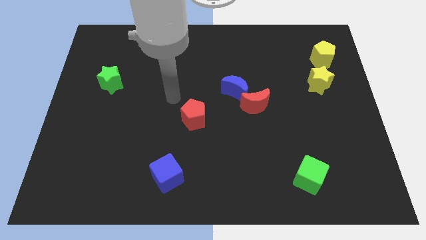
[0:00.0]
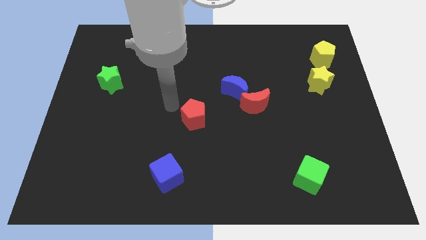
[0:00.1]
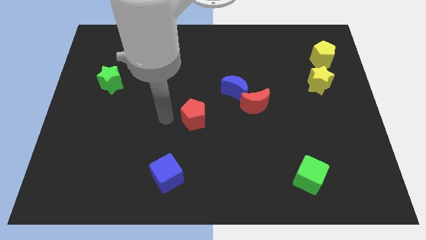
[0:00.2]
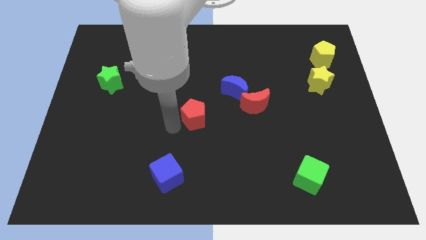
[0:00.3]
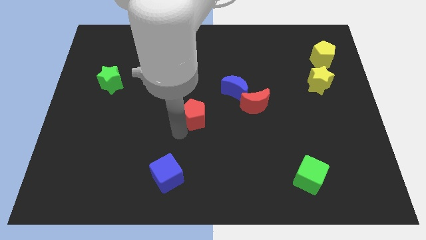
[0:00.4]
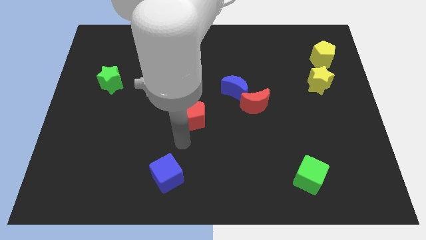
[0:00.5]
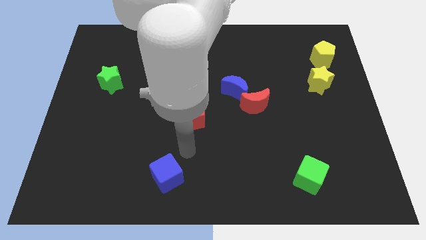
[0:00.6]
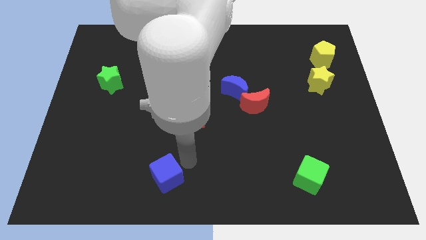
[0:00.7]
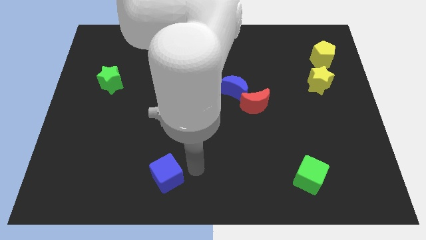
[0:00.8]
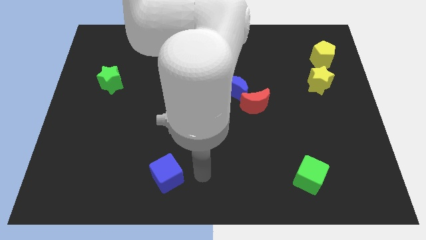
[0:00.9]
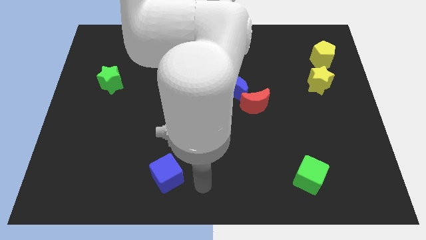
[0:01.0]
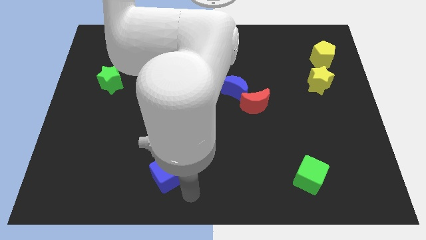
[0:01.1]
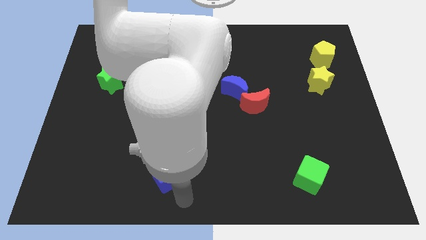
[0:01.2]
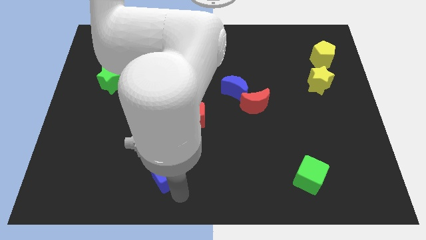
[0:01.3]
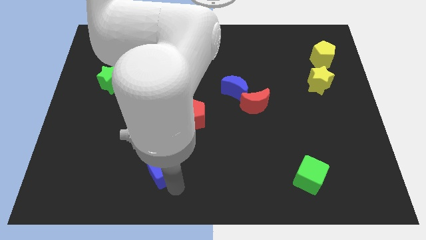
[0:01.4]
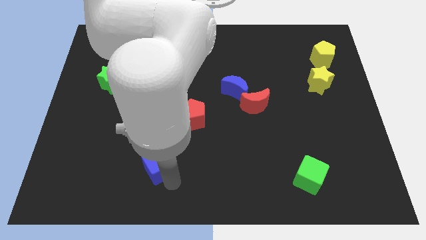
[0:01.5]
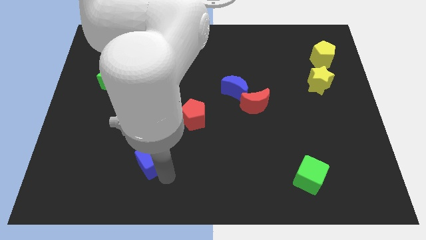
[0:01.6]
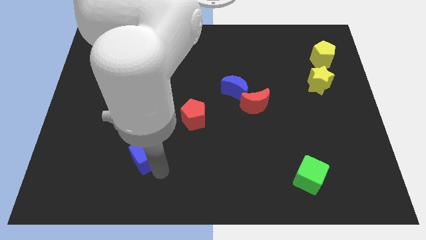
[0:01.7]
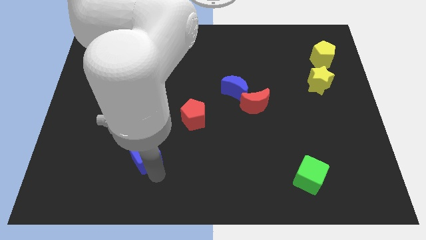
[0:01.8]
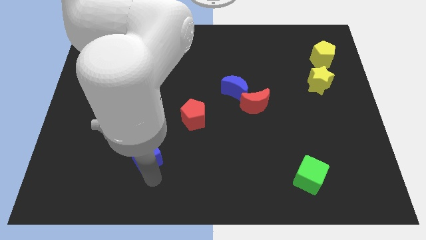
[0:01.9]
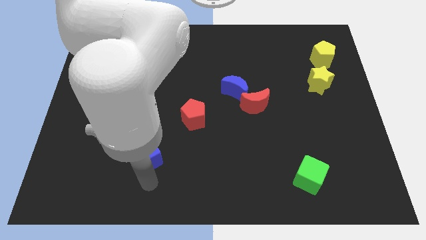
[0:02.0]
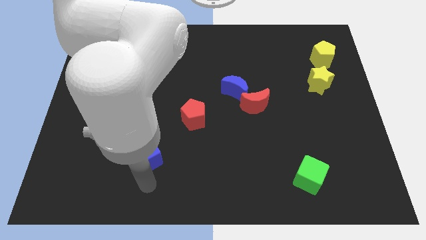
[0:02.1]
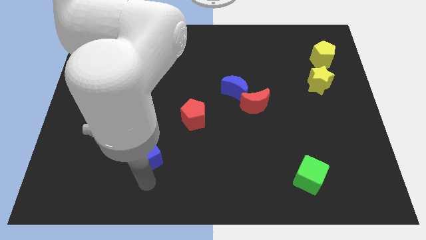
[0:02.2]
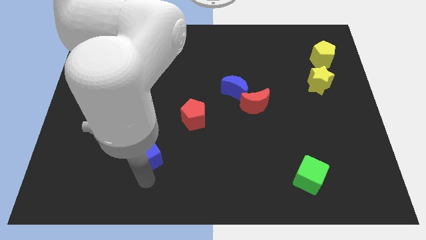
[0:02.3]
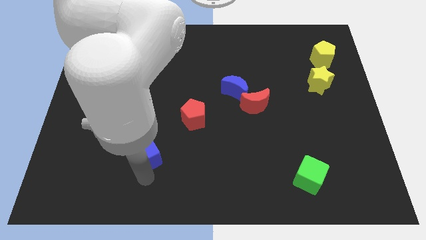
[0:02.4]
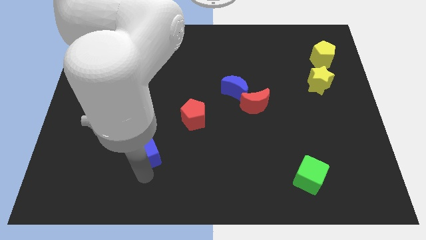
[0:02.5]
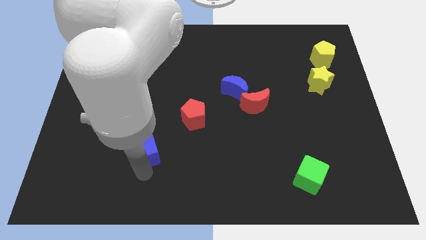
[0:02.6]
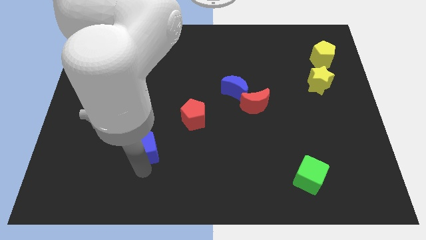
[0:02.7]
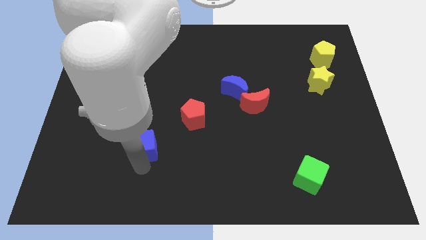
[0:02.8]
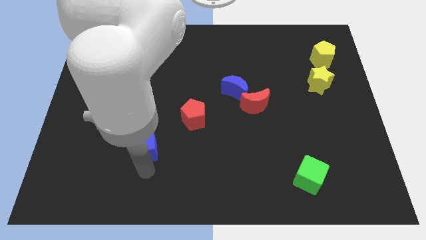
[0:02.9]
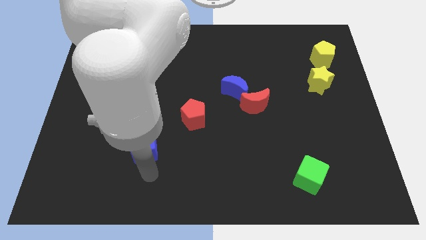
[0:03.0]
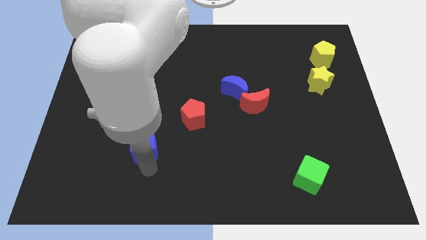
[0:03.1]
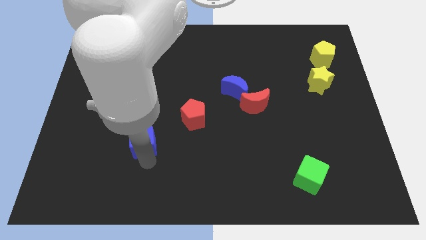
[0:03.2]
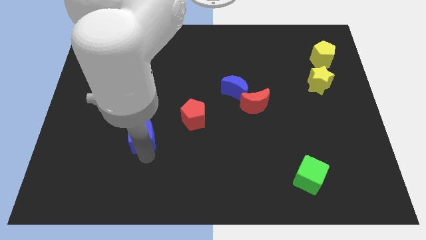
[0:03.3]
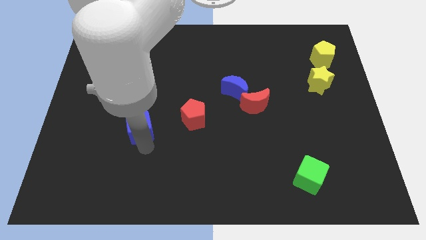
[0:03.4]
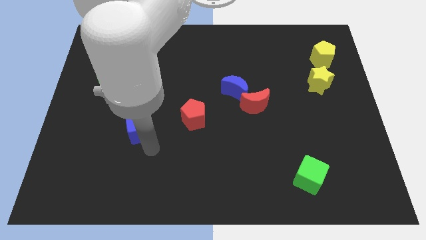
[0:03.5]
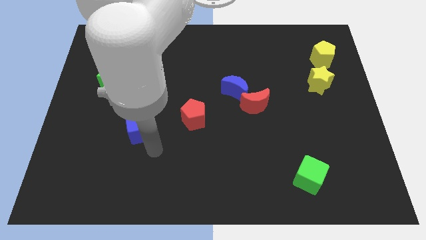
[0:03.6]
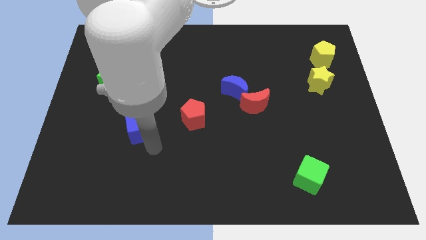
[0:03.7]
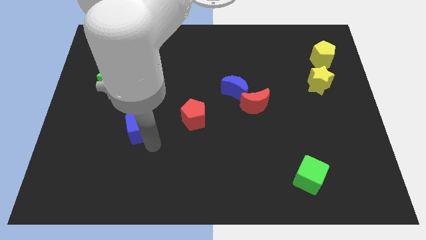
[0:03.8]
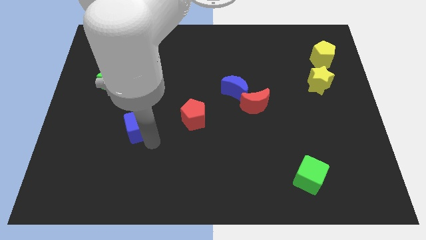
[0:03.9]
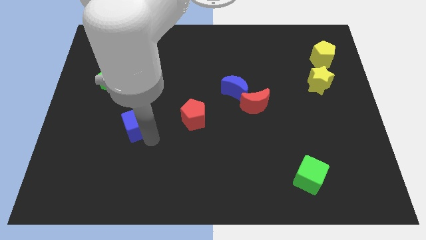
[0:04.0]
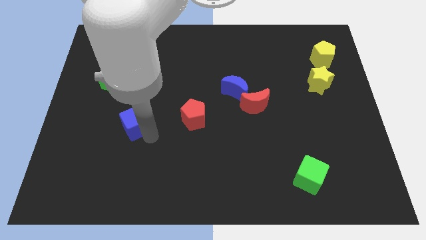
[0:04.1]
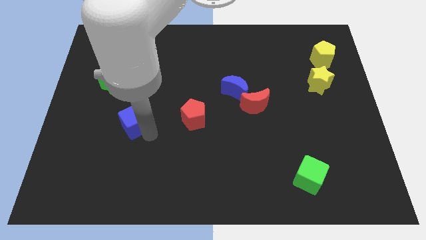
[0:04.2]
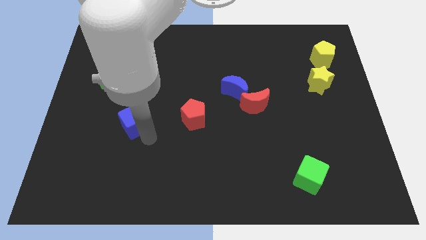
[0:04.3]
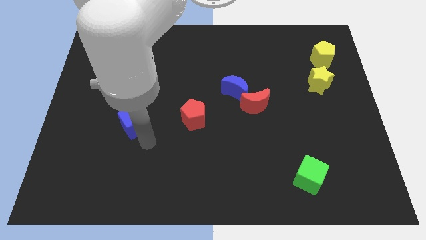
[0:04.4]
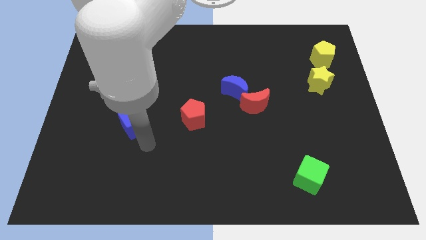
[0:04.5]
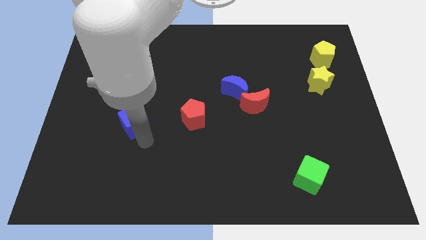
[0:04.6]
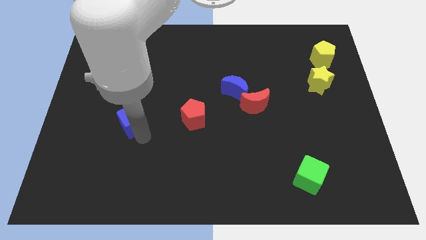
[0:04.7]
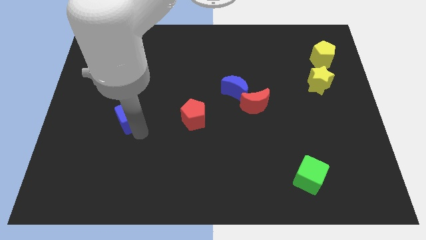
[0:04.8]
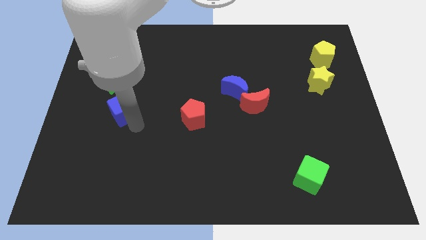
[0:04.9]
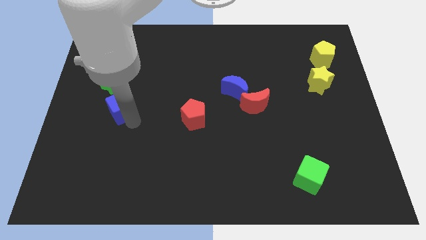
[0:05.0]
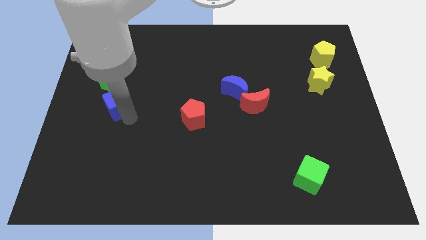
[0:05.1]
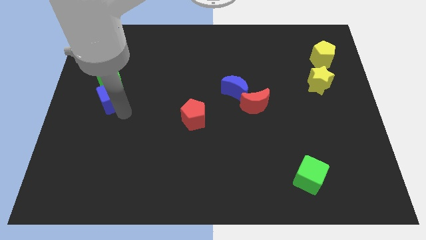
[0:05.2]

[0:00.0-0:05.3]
move the blue cube close to the green star

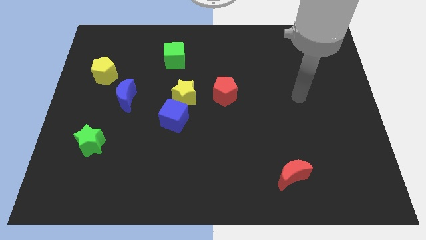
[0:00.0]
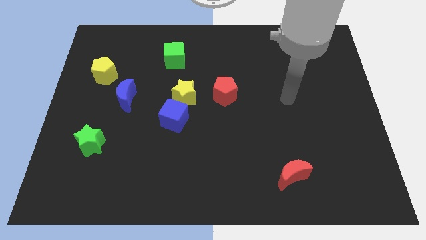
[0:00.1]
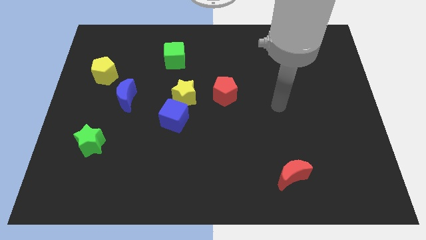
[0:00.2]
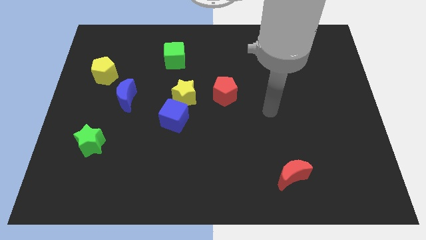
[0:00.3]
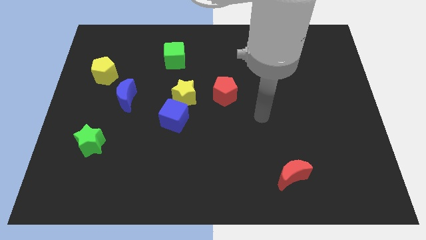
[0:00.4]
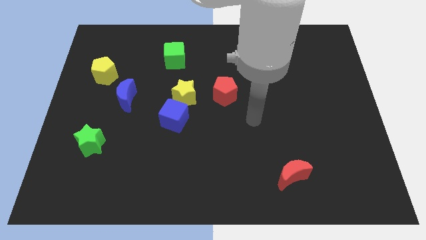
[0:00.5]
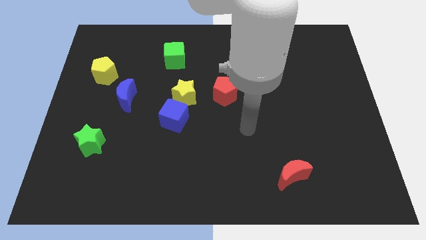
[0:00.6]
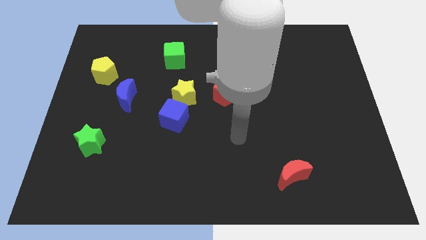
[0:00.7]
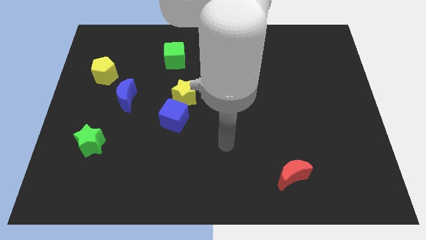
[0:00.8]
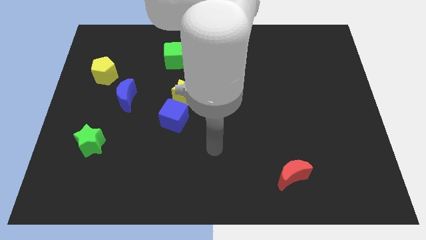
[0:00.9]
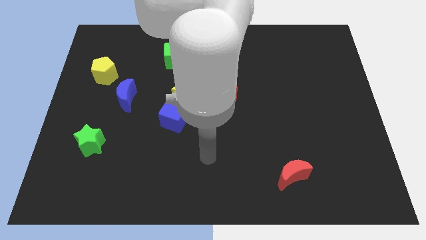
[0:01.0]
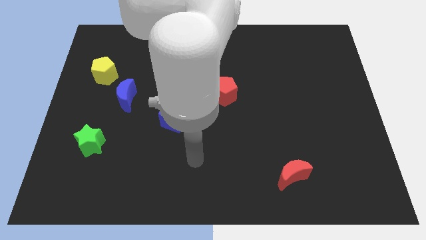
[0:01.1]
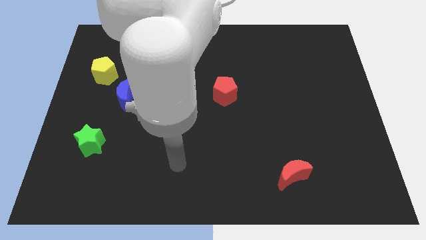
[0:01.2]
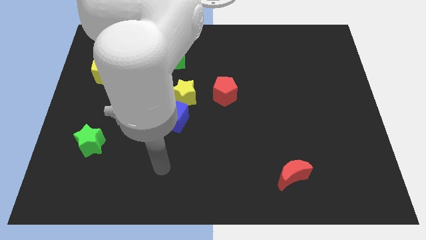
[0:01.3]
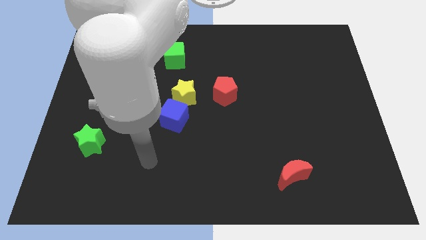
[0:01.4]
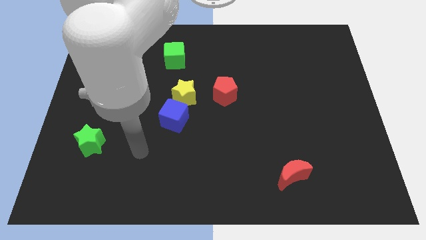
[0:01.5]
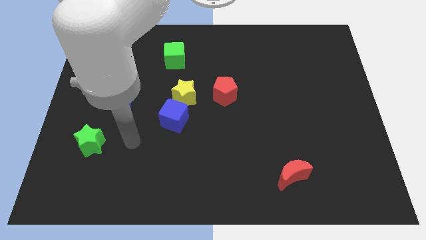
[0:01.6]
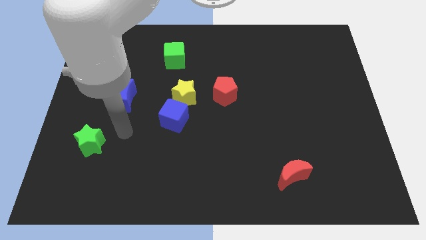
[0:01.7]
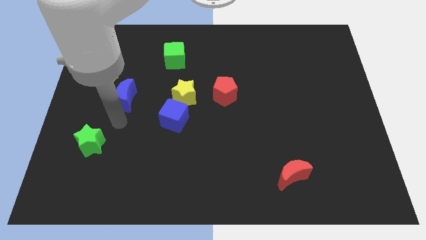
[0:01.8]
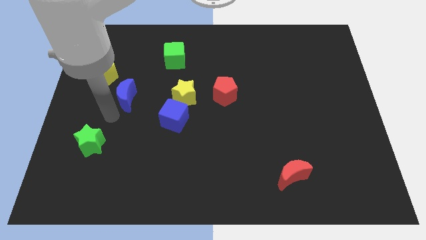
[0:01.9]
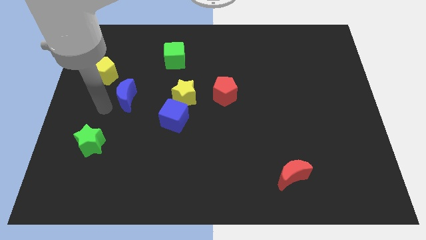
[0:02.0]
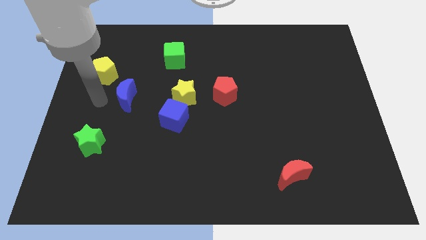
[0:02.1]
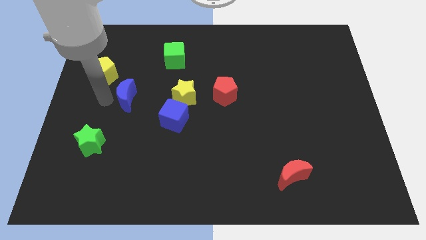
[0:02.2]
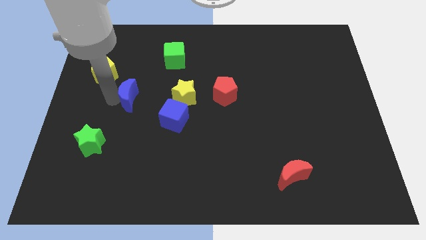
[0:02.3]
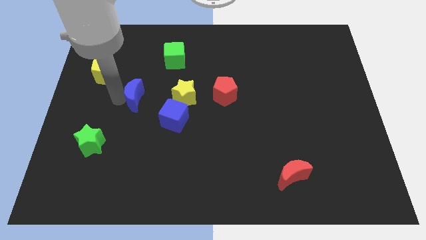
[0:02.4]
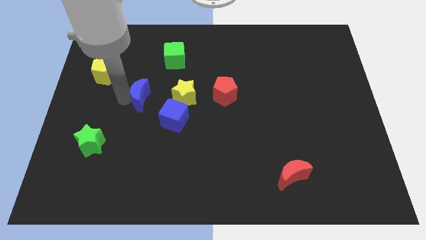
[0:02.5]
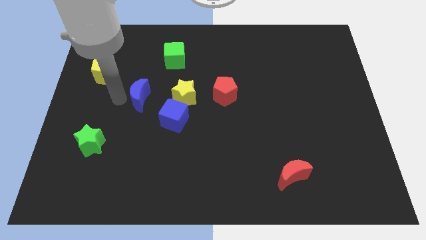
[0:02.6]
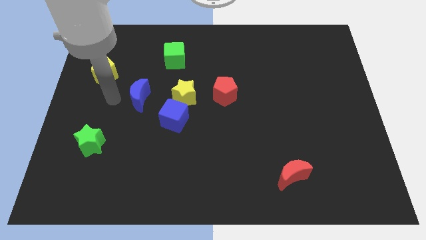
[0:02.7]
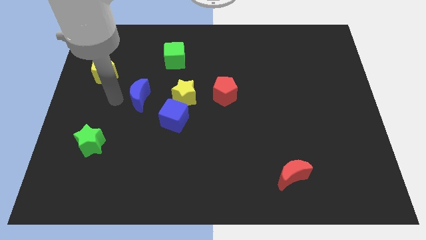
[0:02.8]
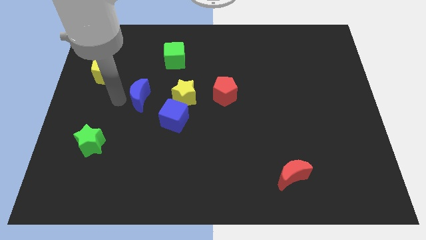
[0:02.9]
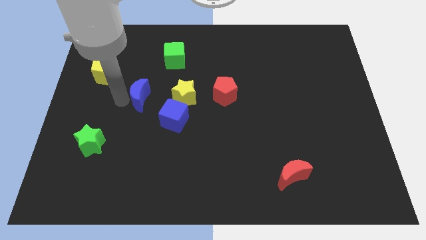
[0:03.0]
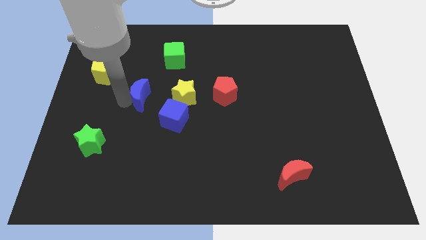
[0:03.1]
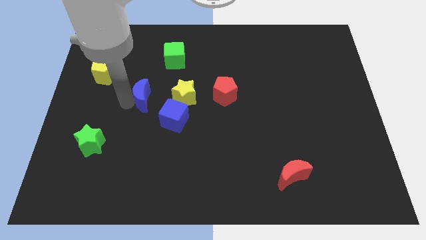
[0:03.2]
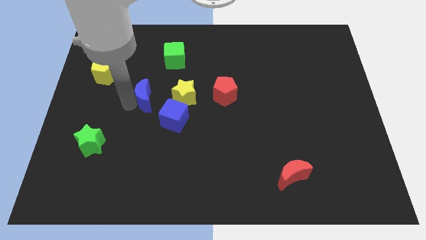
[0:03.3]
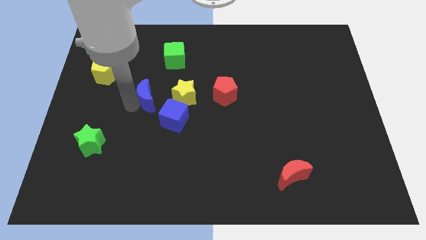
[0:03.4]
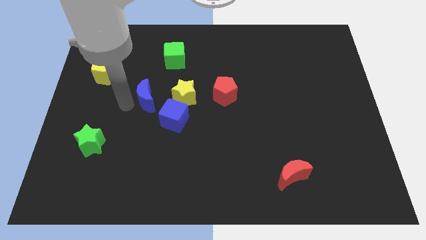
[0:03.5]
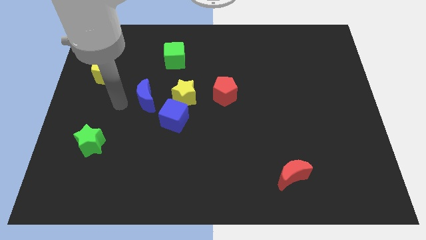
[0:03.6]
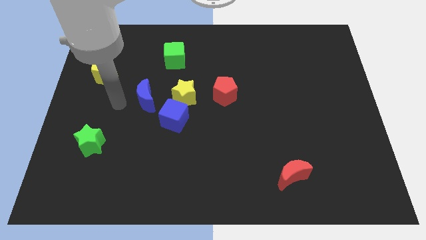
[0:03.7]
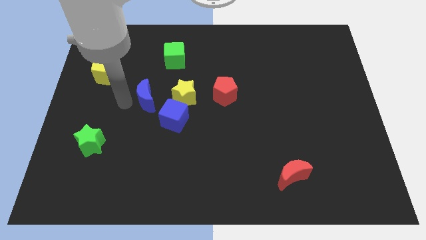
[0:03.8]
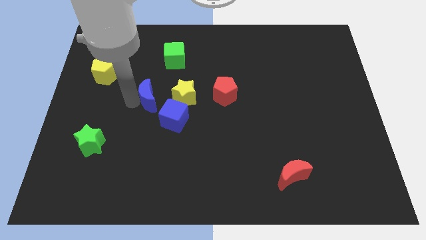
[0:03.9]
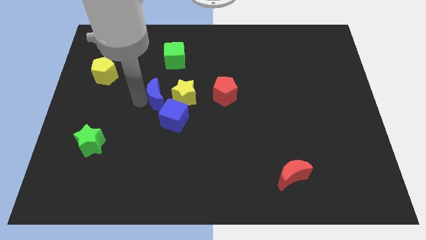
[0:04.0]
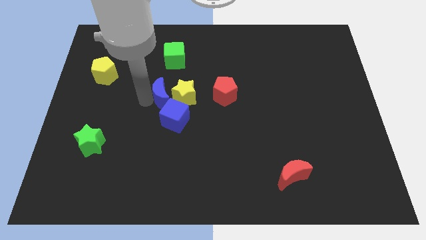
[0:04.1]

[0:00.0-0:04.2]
move the blue moon to the yellow star
